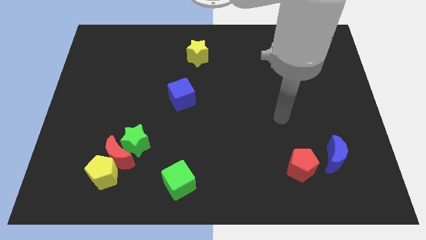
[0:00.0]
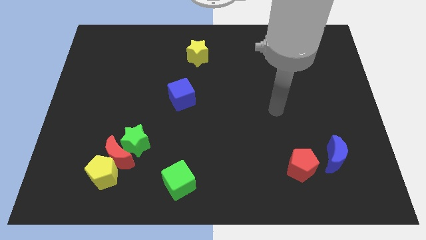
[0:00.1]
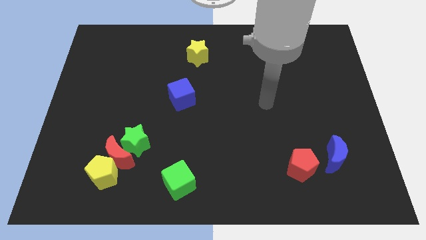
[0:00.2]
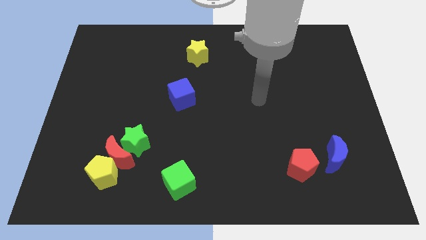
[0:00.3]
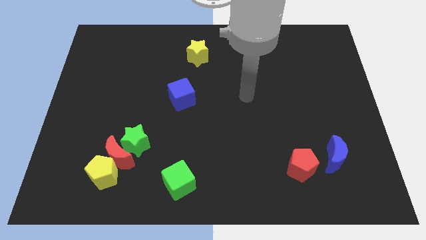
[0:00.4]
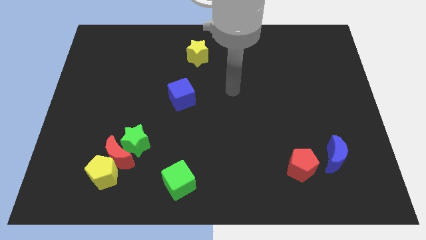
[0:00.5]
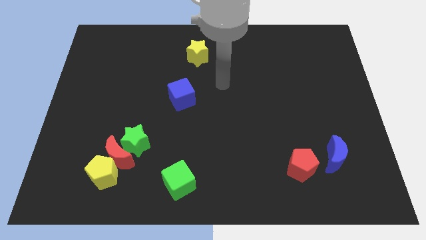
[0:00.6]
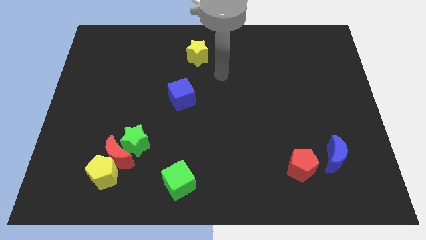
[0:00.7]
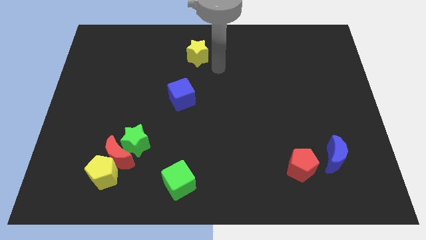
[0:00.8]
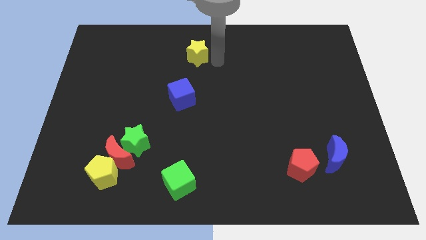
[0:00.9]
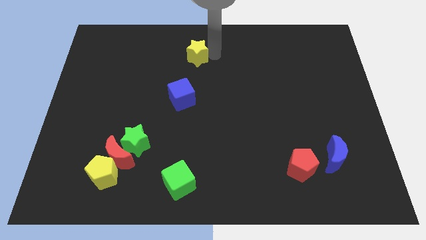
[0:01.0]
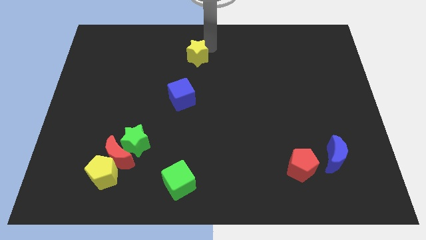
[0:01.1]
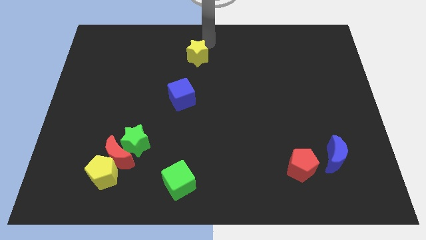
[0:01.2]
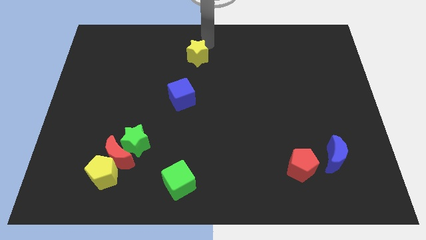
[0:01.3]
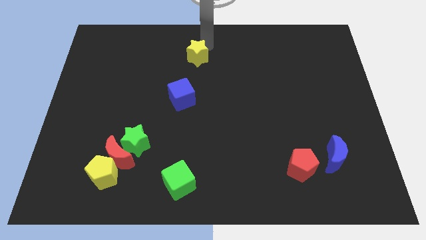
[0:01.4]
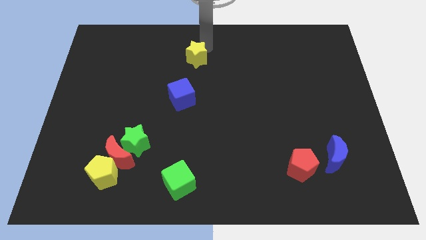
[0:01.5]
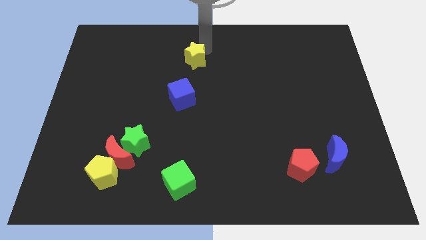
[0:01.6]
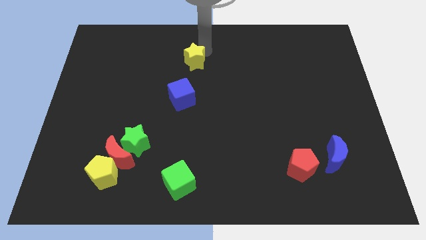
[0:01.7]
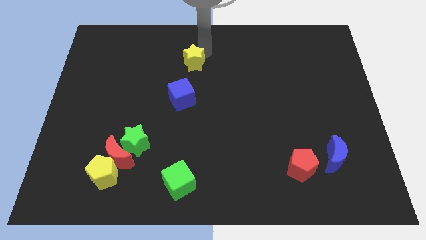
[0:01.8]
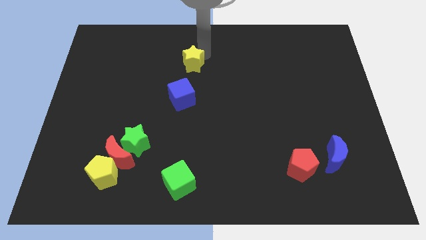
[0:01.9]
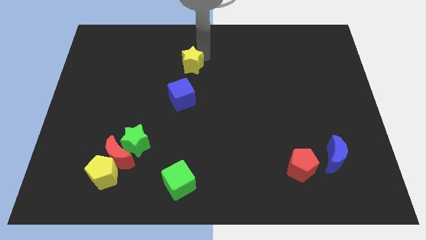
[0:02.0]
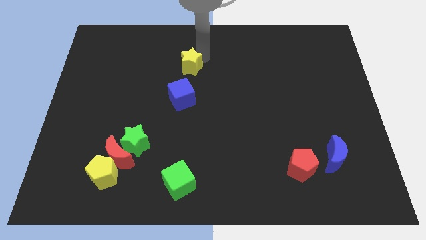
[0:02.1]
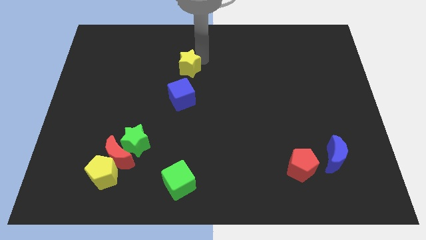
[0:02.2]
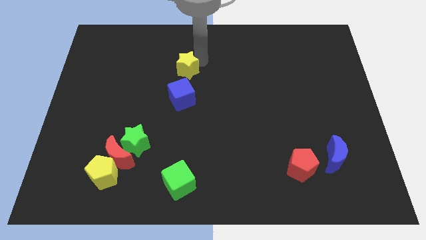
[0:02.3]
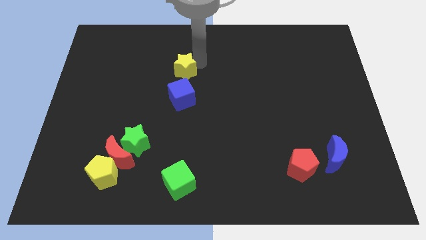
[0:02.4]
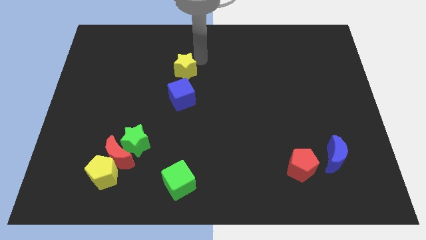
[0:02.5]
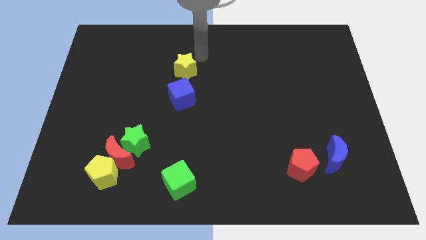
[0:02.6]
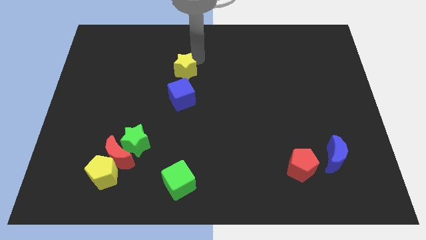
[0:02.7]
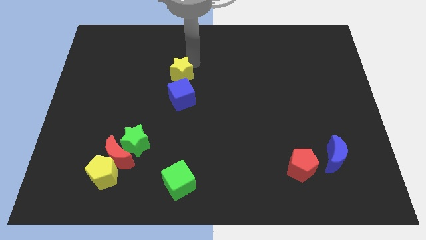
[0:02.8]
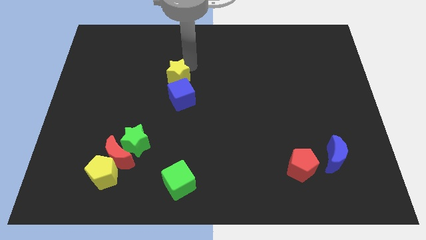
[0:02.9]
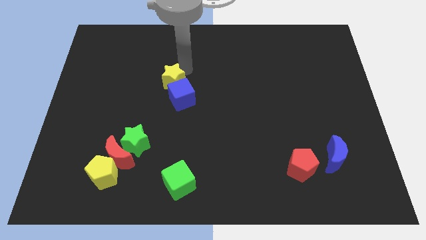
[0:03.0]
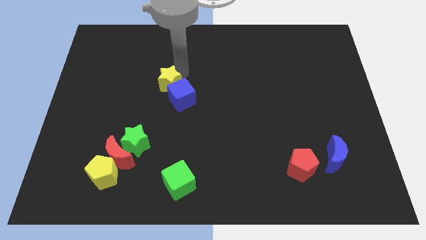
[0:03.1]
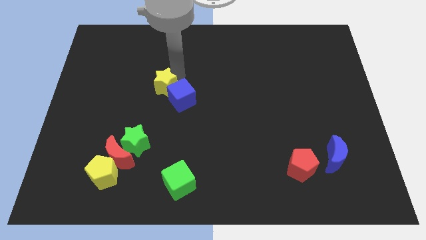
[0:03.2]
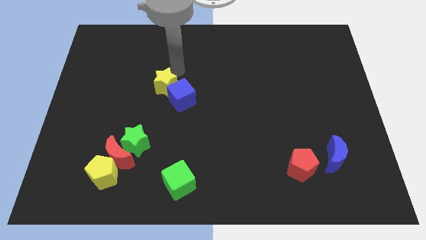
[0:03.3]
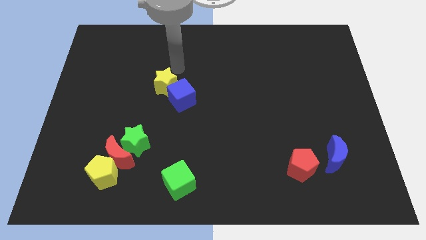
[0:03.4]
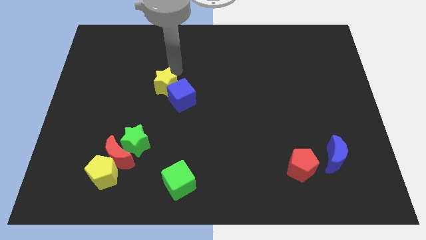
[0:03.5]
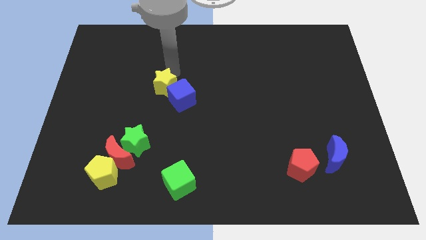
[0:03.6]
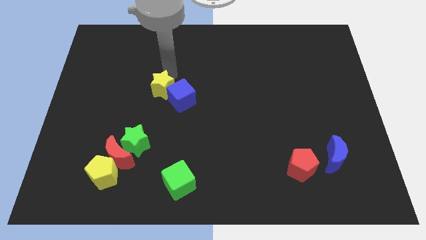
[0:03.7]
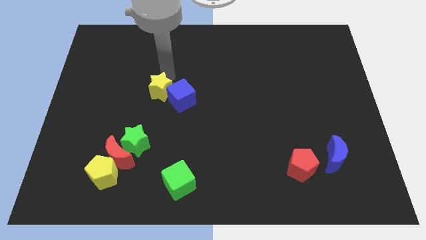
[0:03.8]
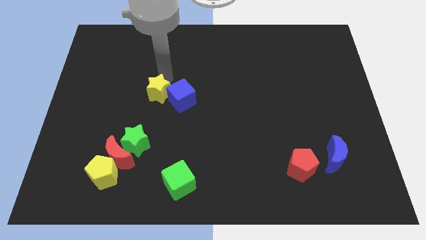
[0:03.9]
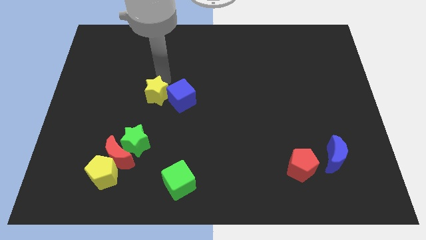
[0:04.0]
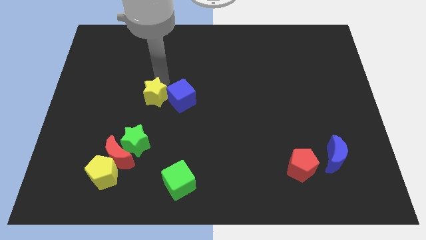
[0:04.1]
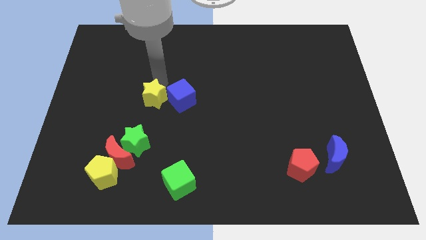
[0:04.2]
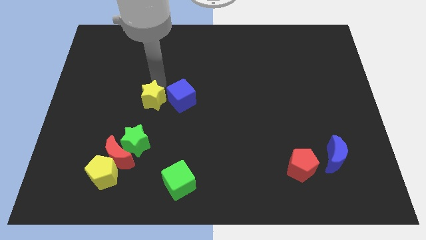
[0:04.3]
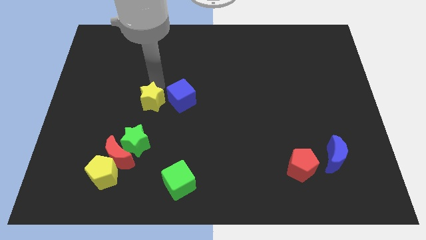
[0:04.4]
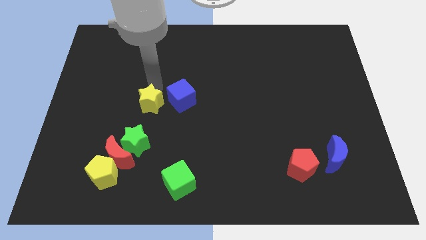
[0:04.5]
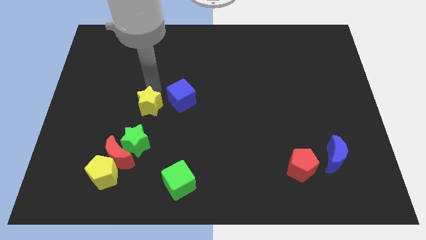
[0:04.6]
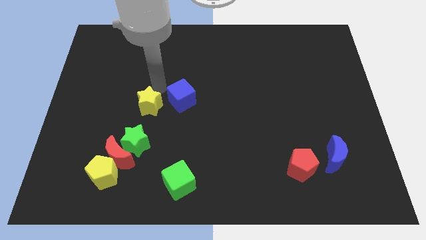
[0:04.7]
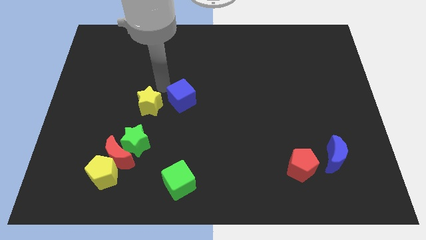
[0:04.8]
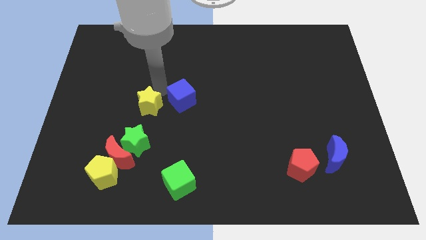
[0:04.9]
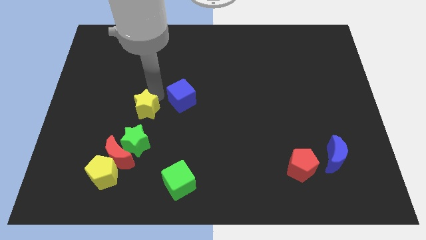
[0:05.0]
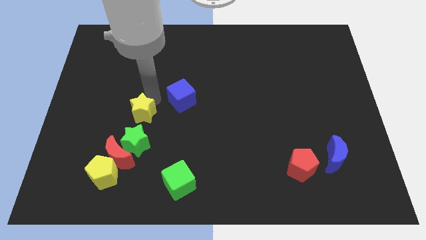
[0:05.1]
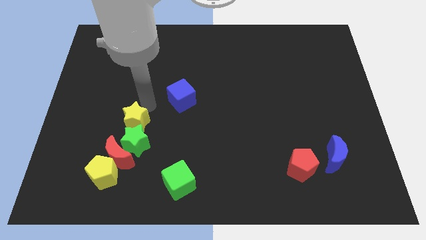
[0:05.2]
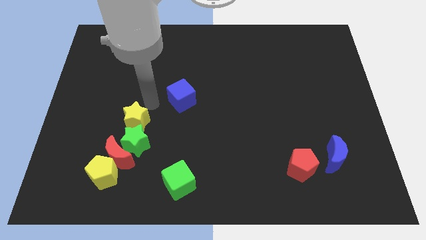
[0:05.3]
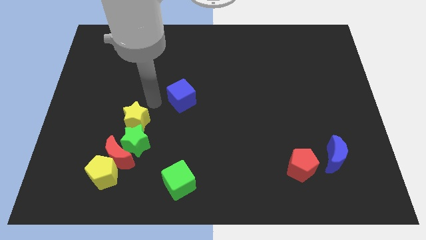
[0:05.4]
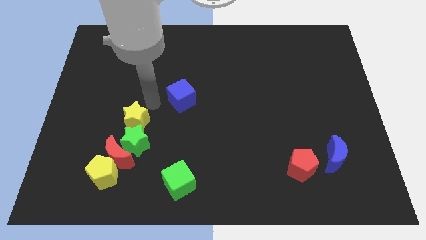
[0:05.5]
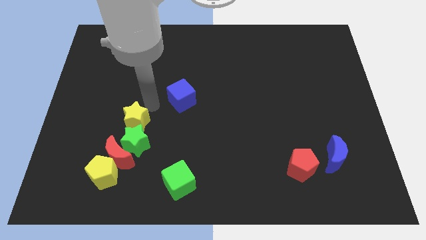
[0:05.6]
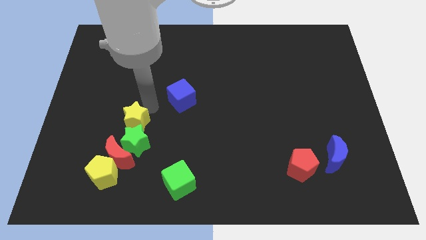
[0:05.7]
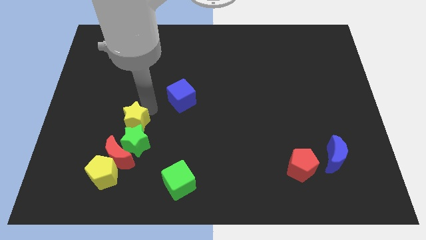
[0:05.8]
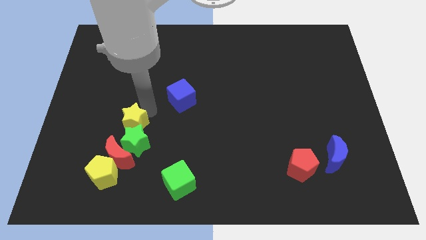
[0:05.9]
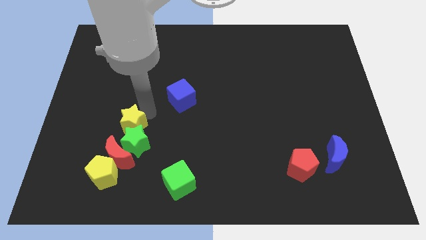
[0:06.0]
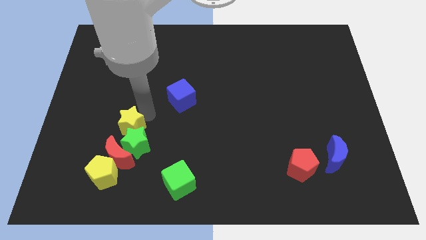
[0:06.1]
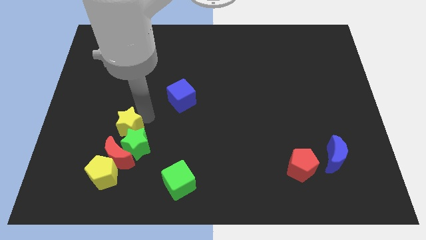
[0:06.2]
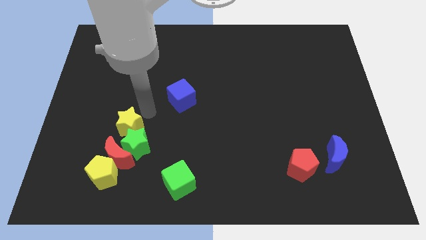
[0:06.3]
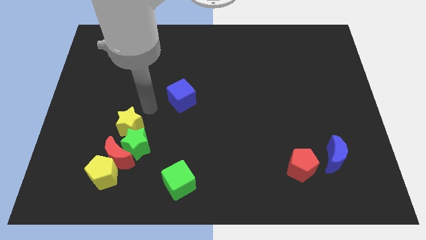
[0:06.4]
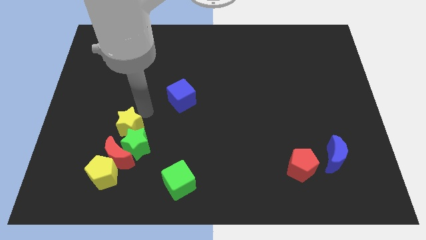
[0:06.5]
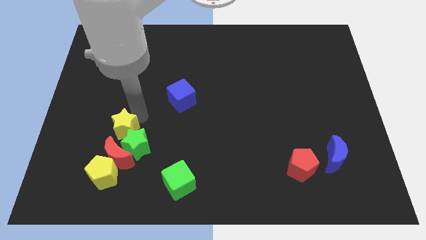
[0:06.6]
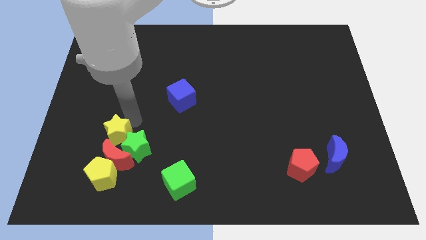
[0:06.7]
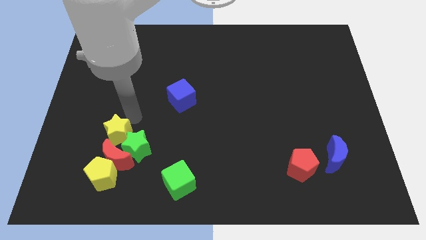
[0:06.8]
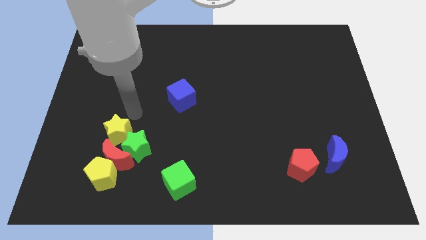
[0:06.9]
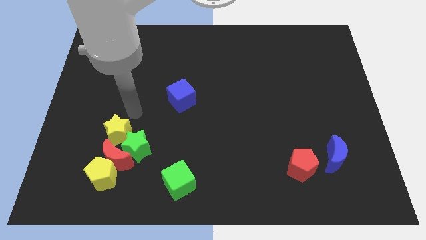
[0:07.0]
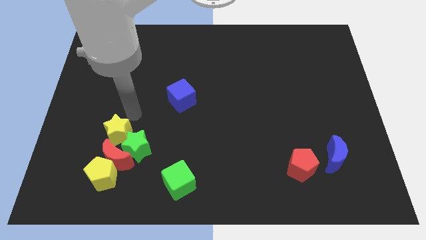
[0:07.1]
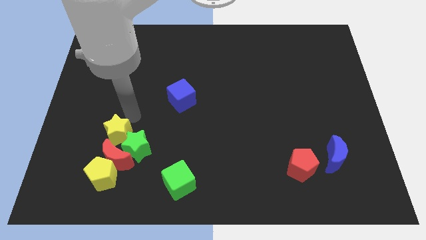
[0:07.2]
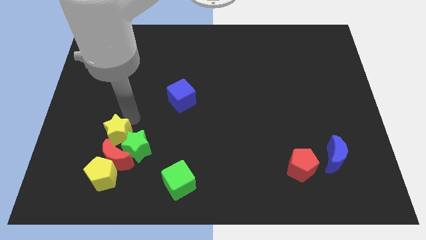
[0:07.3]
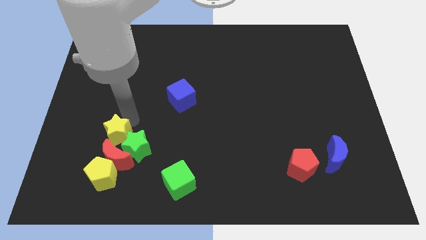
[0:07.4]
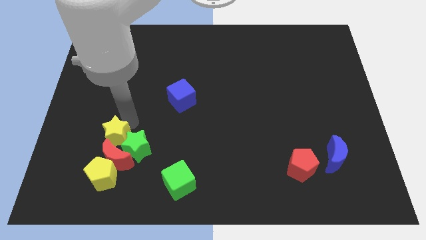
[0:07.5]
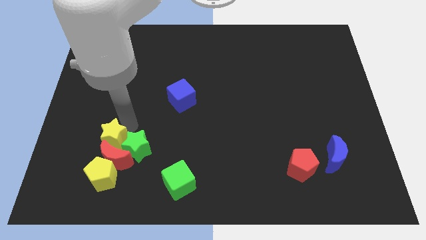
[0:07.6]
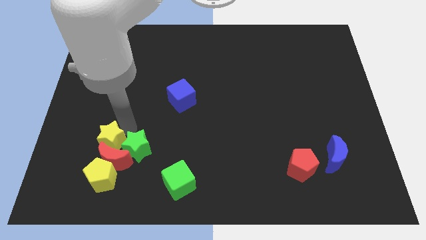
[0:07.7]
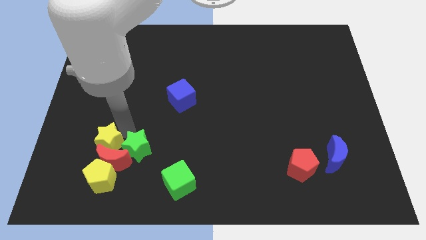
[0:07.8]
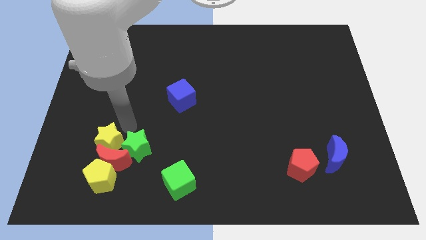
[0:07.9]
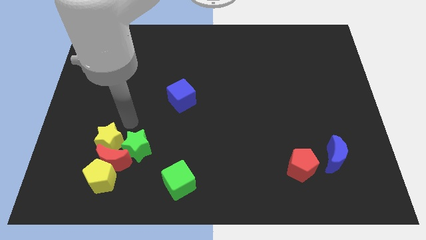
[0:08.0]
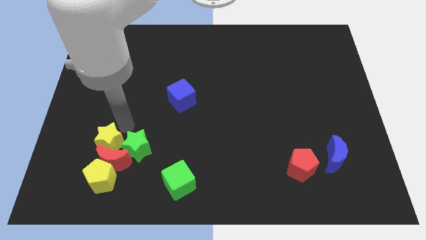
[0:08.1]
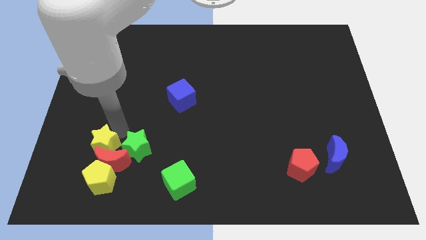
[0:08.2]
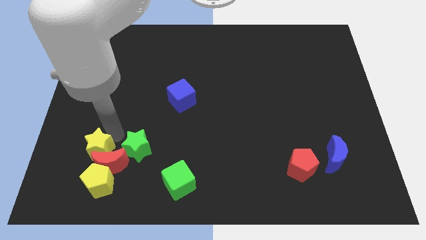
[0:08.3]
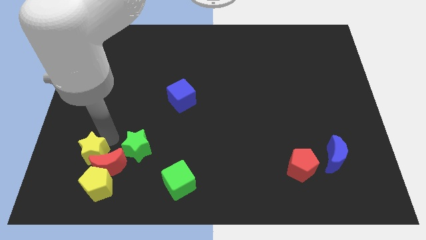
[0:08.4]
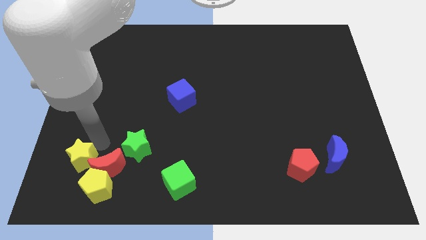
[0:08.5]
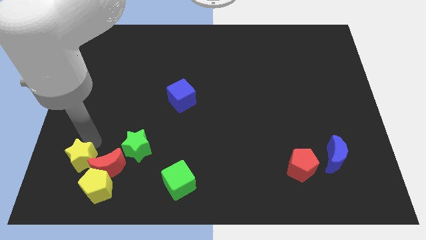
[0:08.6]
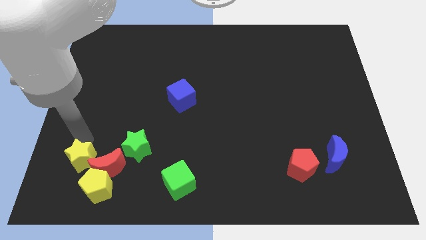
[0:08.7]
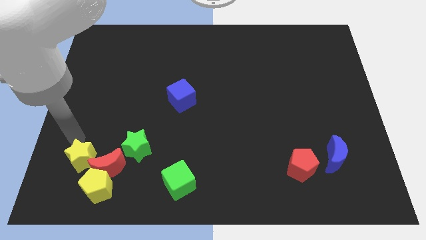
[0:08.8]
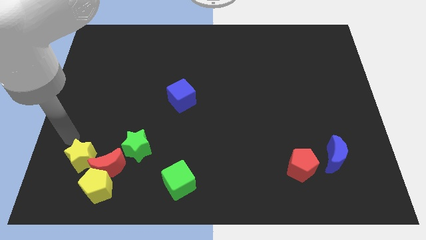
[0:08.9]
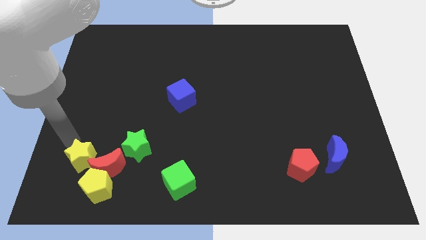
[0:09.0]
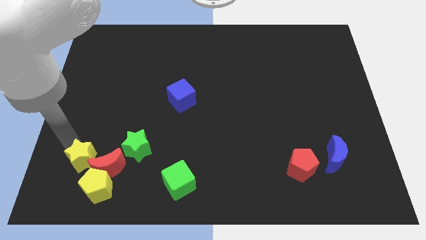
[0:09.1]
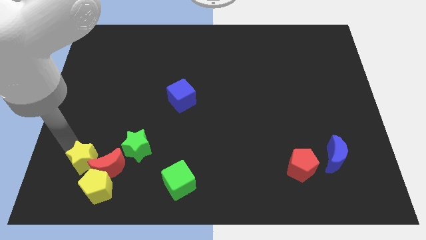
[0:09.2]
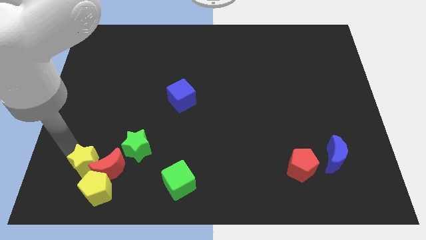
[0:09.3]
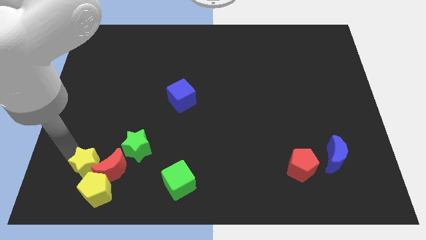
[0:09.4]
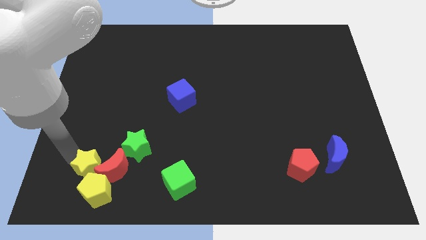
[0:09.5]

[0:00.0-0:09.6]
move the yellow star towards the yellow pentagon
